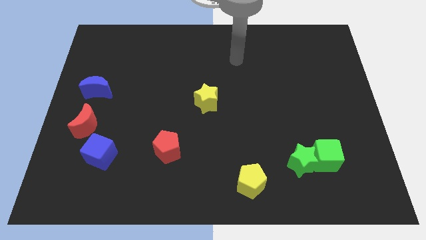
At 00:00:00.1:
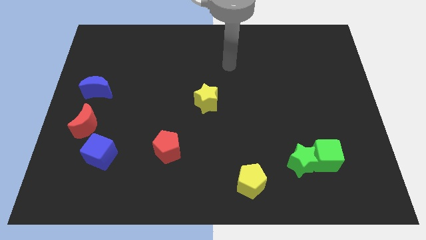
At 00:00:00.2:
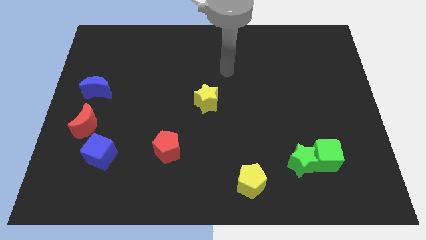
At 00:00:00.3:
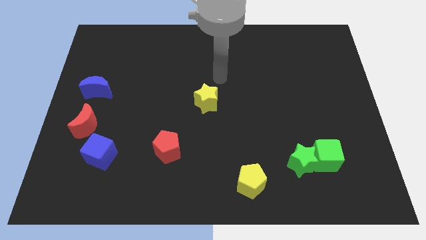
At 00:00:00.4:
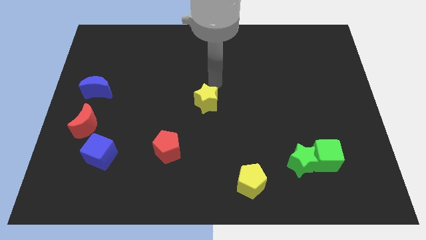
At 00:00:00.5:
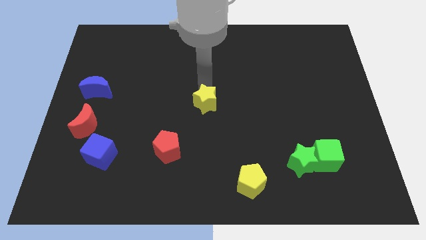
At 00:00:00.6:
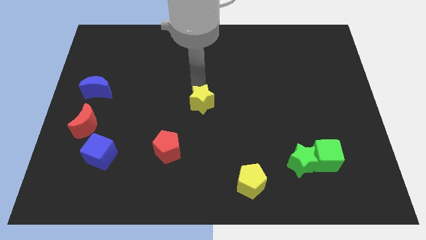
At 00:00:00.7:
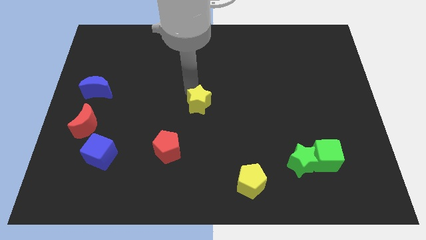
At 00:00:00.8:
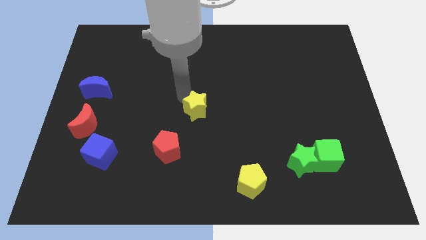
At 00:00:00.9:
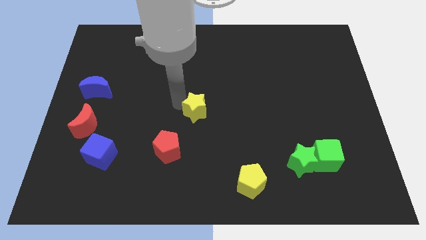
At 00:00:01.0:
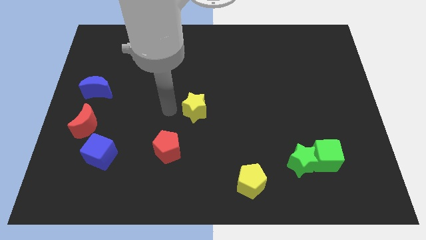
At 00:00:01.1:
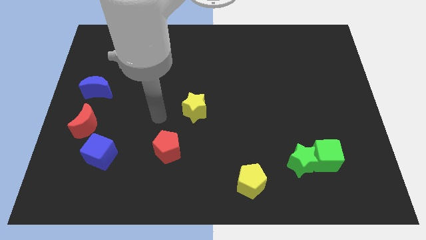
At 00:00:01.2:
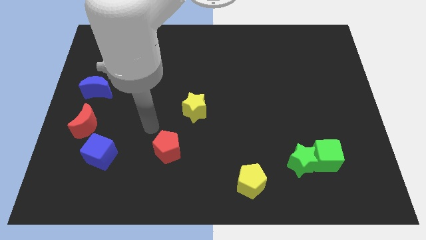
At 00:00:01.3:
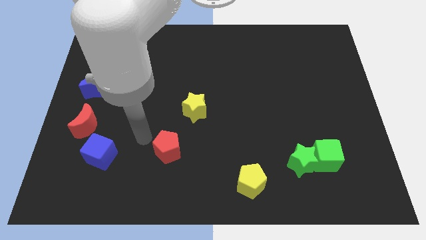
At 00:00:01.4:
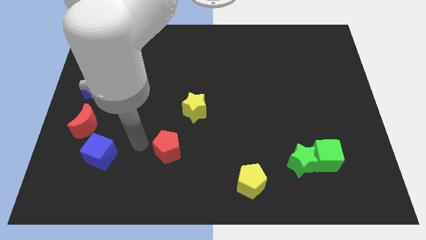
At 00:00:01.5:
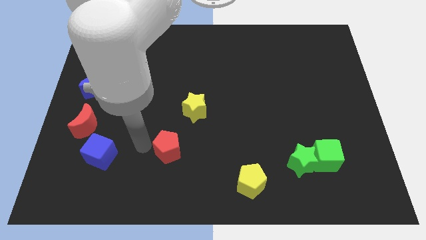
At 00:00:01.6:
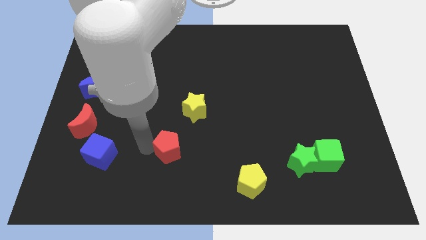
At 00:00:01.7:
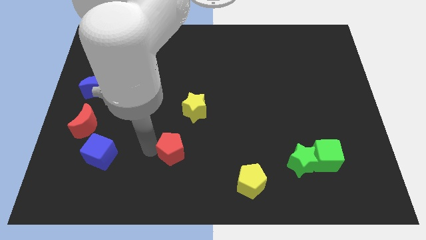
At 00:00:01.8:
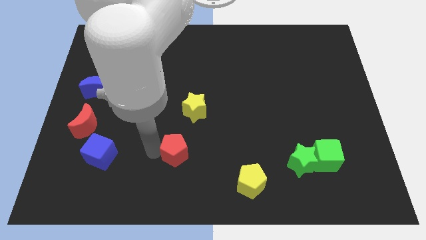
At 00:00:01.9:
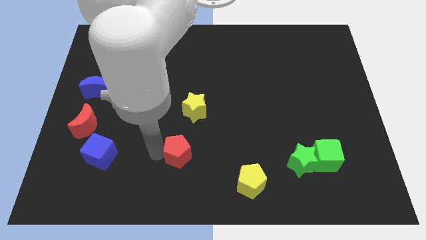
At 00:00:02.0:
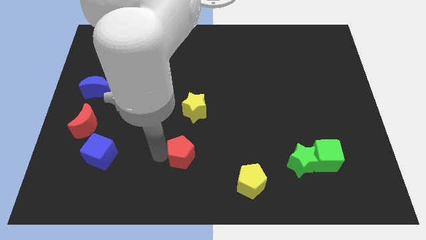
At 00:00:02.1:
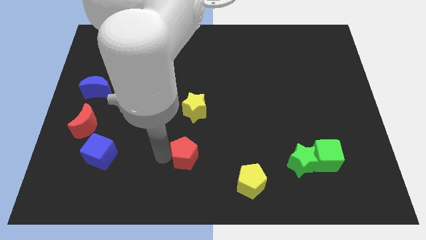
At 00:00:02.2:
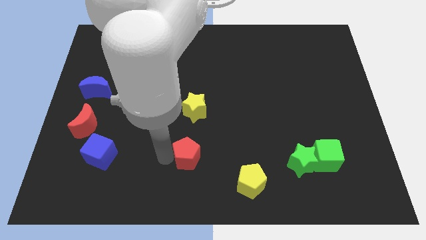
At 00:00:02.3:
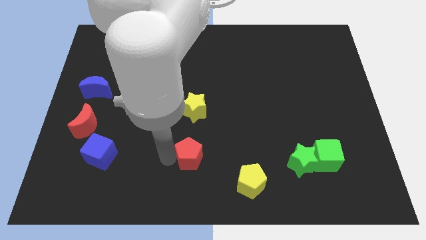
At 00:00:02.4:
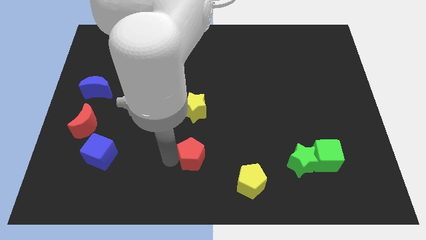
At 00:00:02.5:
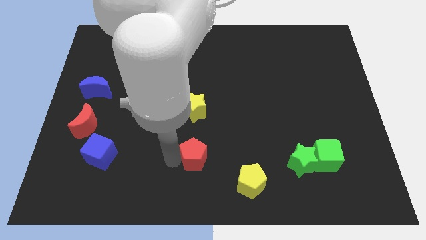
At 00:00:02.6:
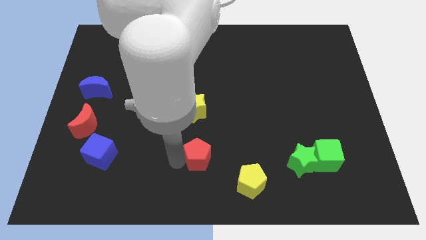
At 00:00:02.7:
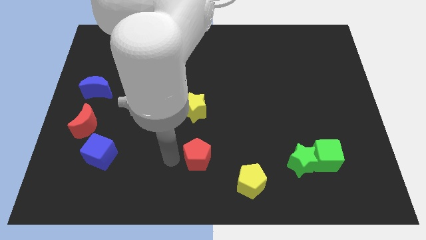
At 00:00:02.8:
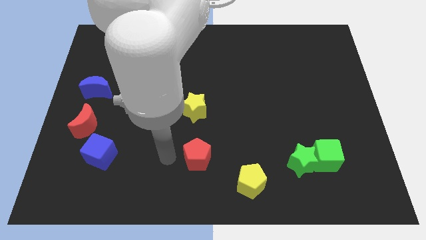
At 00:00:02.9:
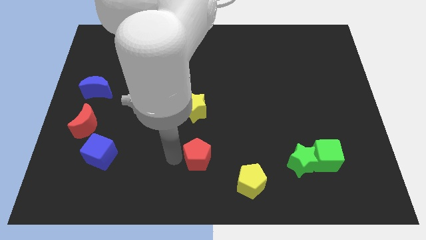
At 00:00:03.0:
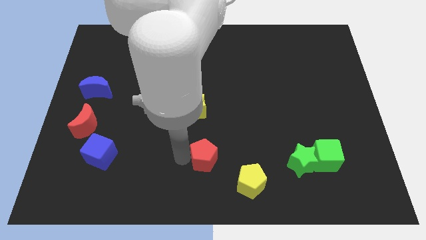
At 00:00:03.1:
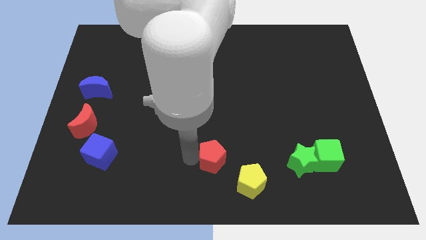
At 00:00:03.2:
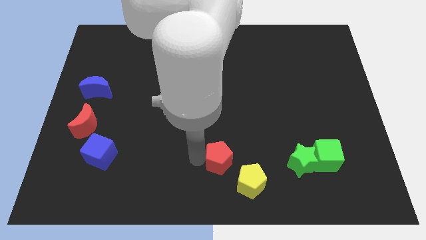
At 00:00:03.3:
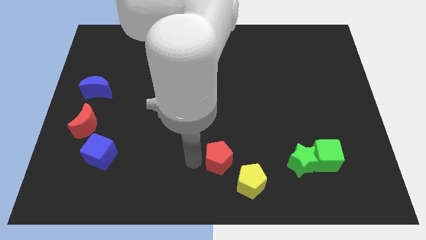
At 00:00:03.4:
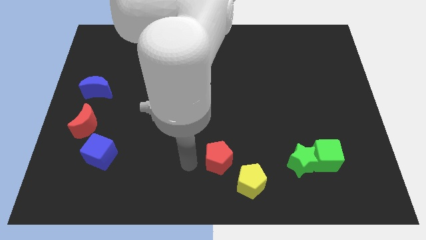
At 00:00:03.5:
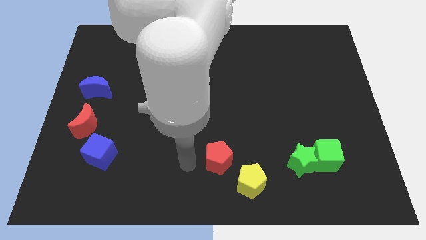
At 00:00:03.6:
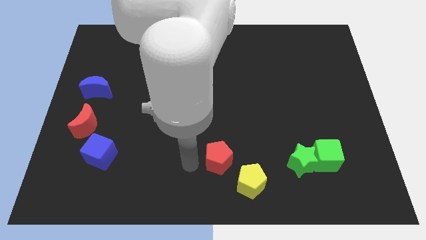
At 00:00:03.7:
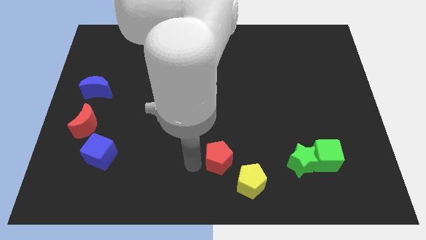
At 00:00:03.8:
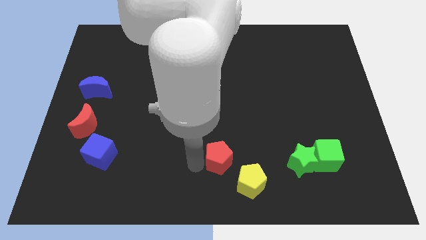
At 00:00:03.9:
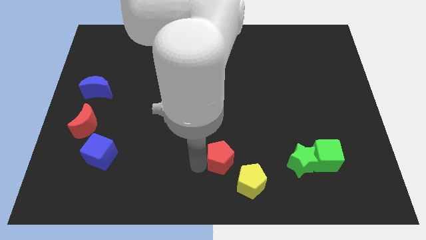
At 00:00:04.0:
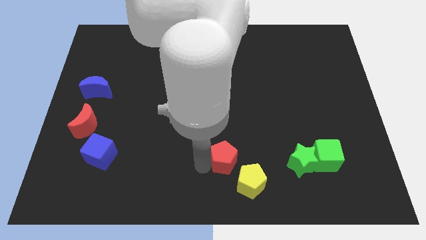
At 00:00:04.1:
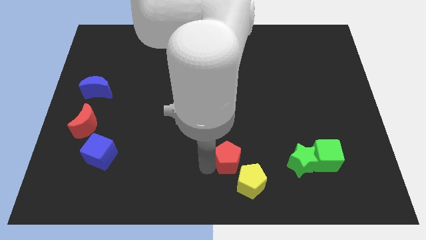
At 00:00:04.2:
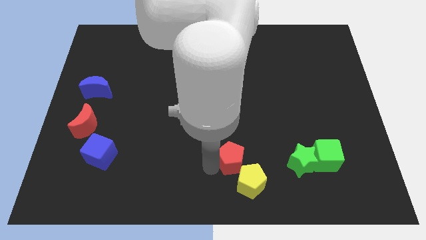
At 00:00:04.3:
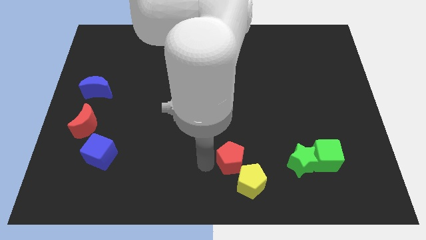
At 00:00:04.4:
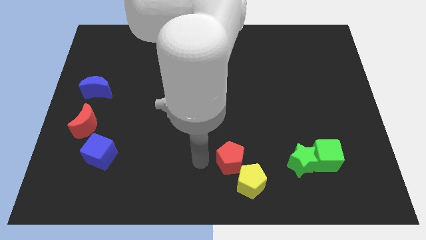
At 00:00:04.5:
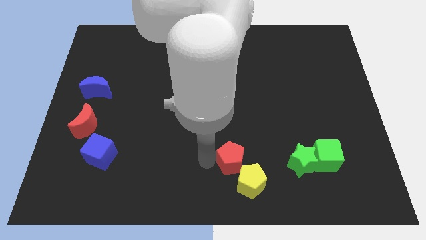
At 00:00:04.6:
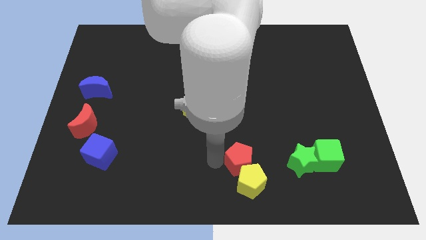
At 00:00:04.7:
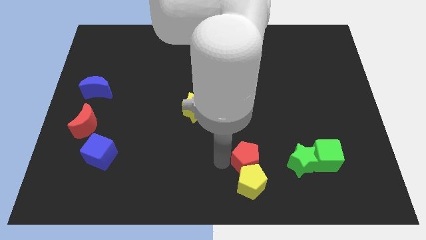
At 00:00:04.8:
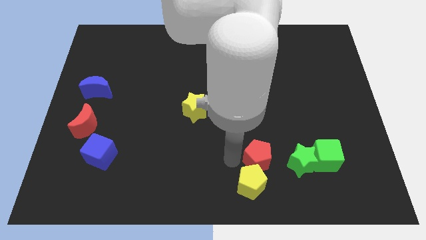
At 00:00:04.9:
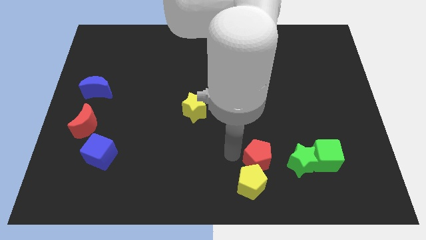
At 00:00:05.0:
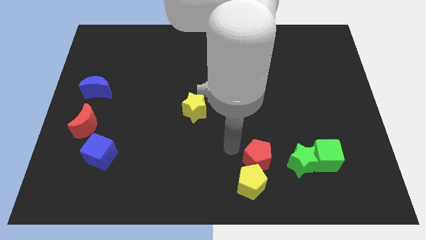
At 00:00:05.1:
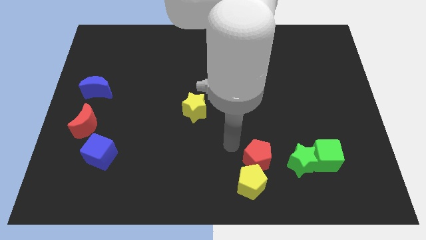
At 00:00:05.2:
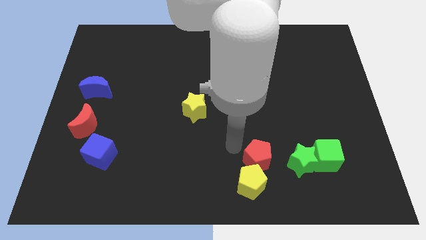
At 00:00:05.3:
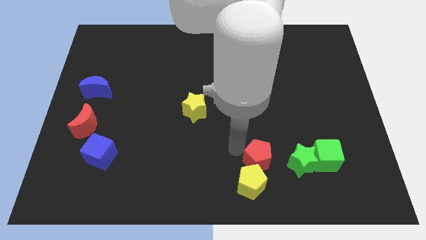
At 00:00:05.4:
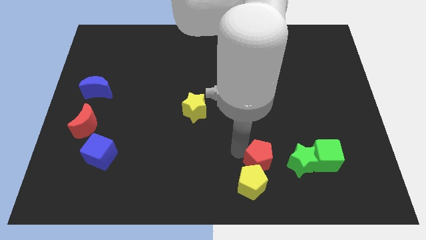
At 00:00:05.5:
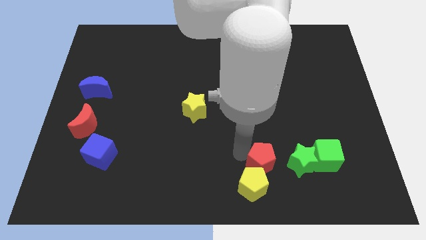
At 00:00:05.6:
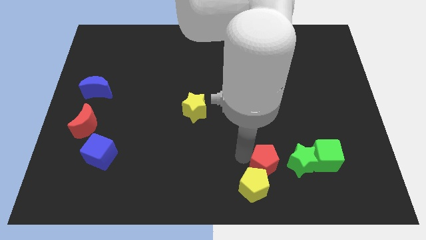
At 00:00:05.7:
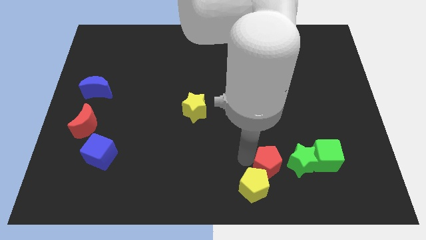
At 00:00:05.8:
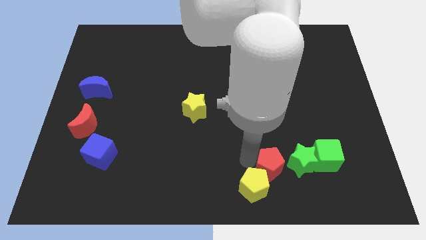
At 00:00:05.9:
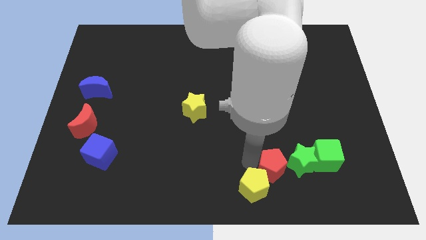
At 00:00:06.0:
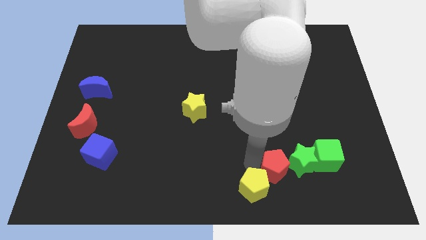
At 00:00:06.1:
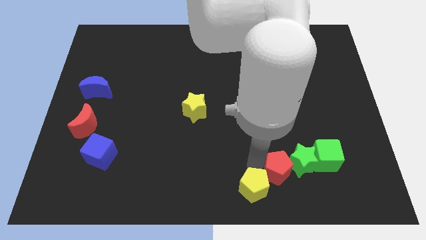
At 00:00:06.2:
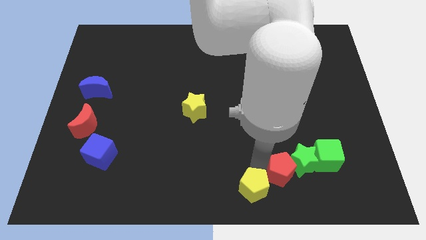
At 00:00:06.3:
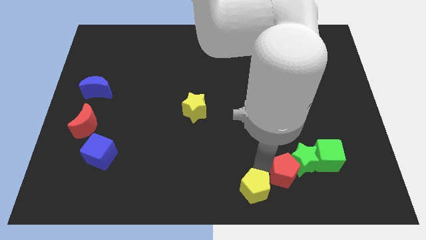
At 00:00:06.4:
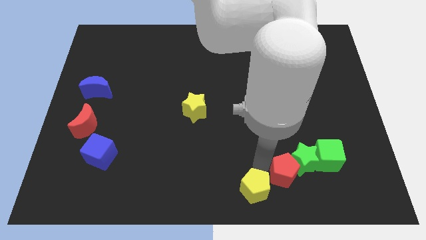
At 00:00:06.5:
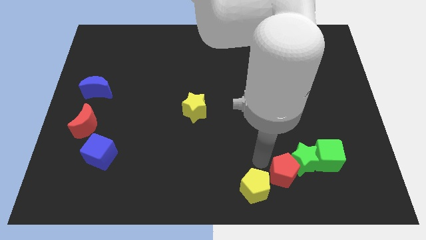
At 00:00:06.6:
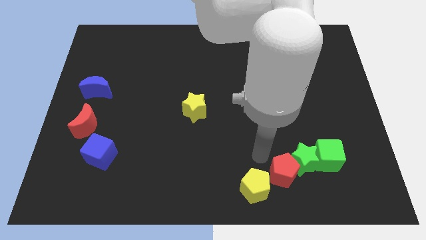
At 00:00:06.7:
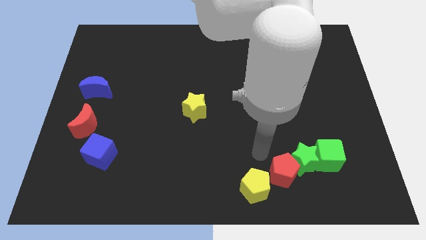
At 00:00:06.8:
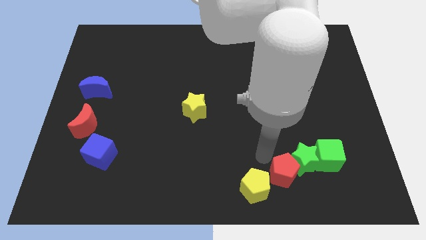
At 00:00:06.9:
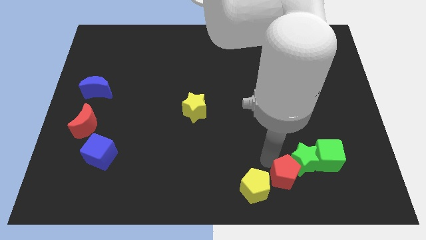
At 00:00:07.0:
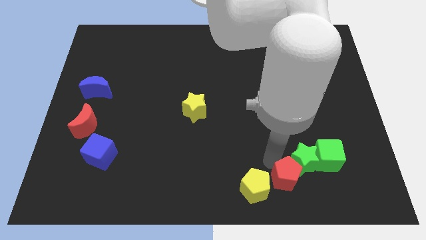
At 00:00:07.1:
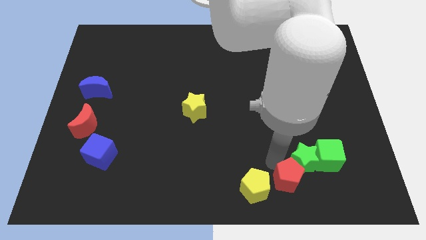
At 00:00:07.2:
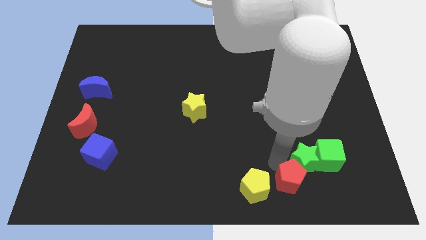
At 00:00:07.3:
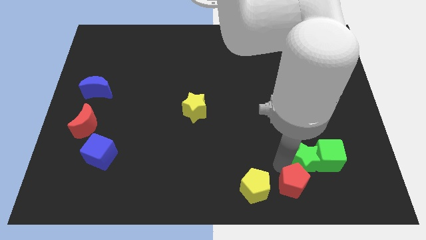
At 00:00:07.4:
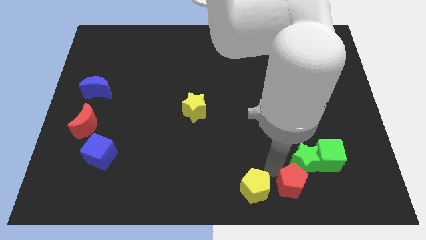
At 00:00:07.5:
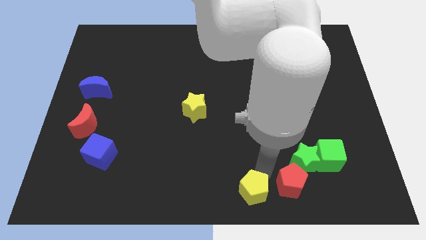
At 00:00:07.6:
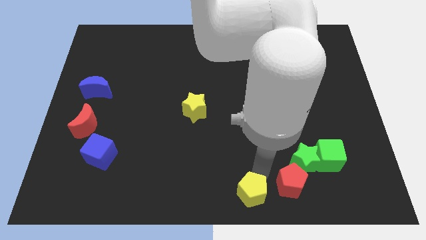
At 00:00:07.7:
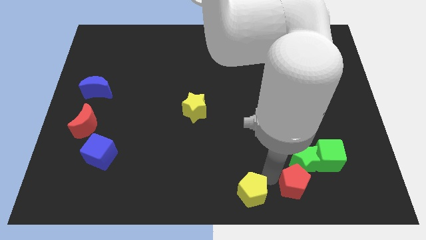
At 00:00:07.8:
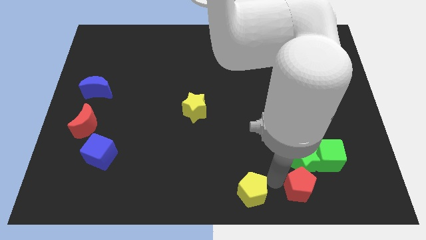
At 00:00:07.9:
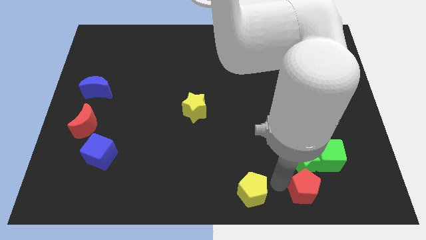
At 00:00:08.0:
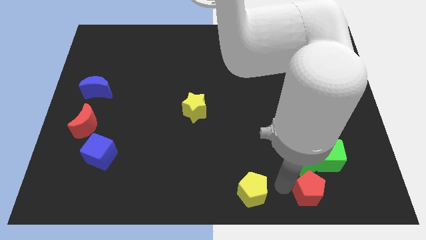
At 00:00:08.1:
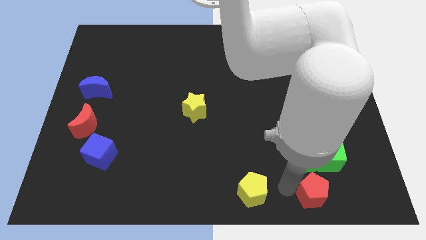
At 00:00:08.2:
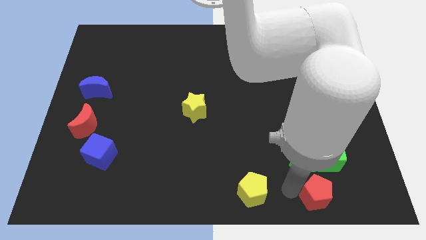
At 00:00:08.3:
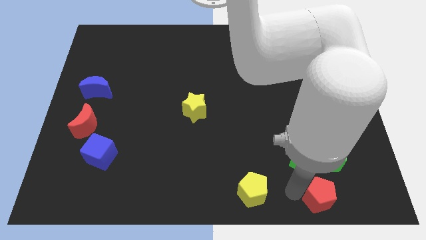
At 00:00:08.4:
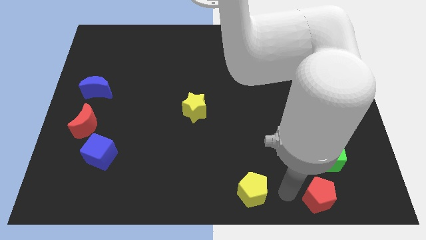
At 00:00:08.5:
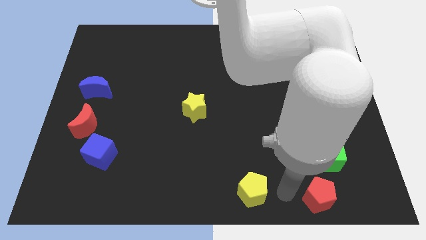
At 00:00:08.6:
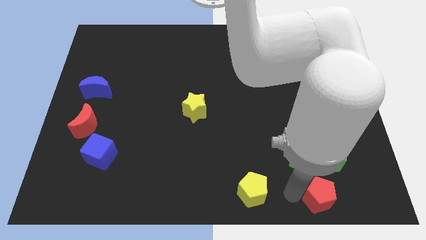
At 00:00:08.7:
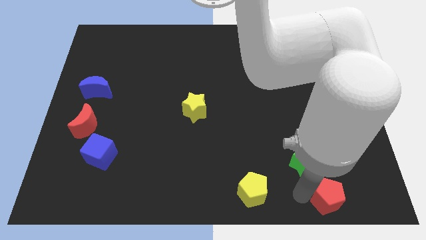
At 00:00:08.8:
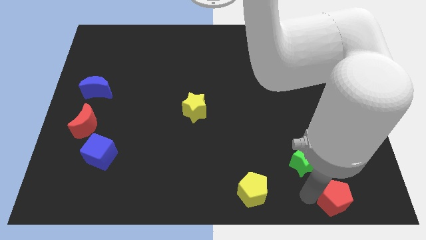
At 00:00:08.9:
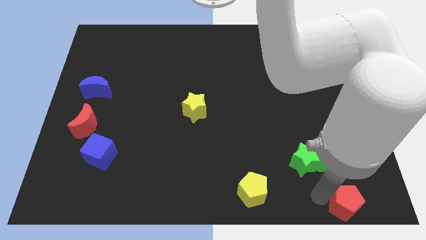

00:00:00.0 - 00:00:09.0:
move the red pentagon to the bottom right of the board
